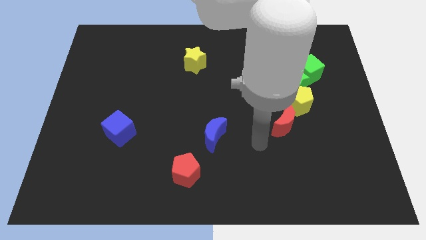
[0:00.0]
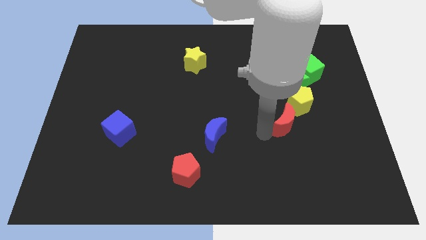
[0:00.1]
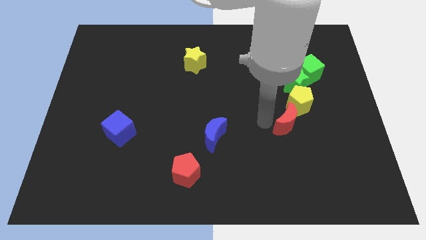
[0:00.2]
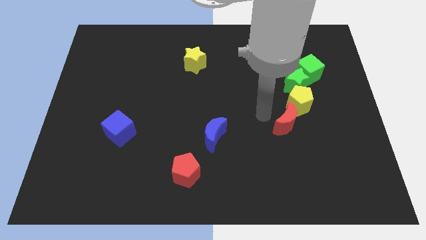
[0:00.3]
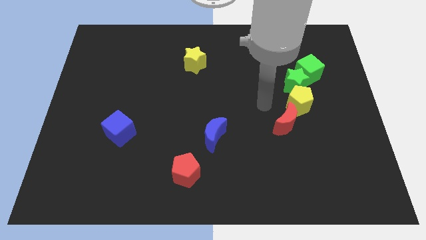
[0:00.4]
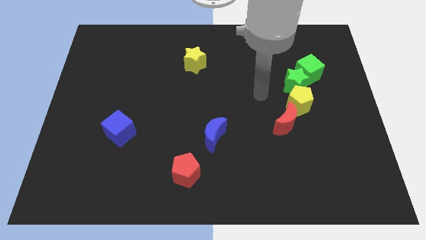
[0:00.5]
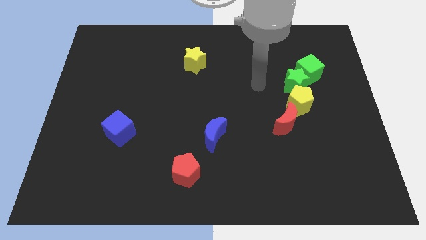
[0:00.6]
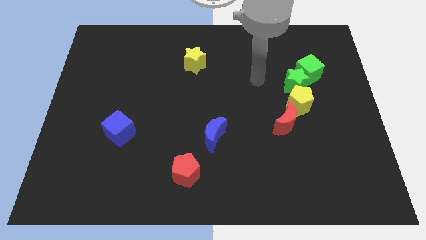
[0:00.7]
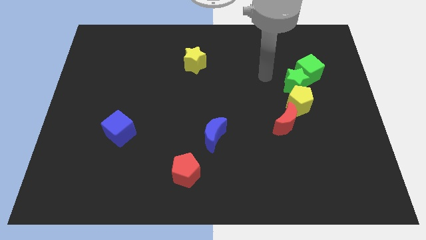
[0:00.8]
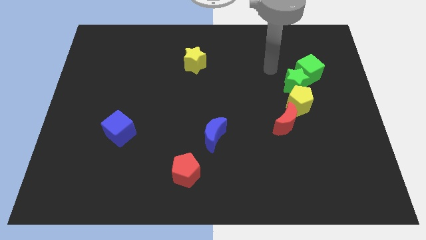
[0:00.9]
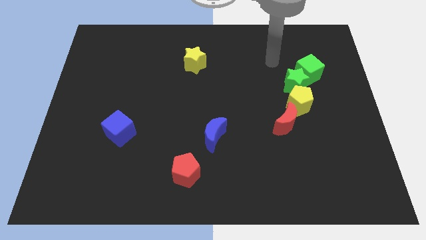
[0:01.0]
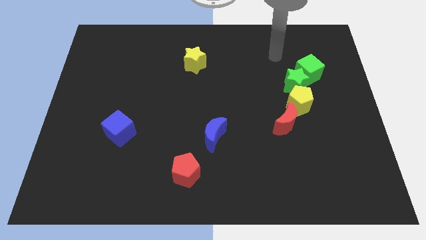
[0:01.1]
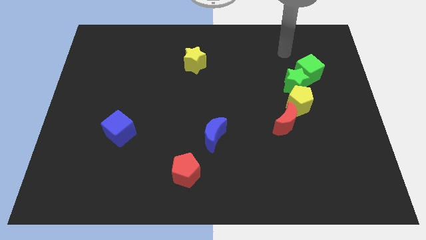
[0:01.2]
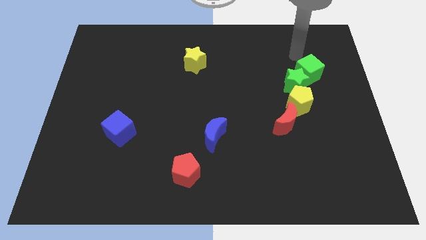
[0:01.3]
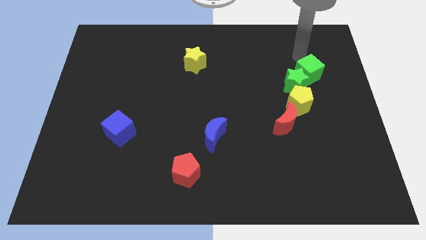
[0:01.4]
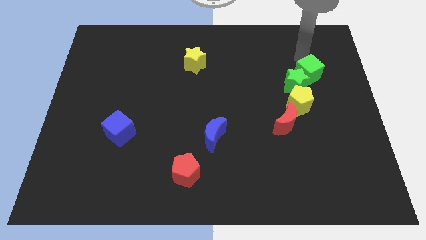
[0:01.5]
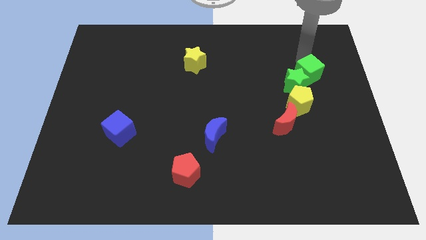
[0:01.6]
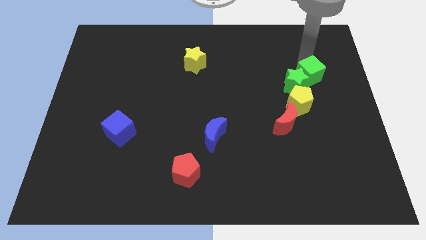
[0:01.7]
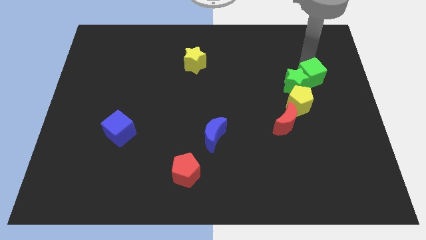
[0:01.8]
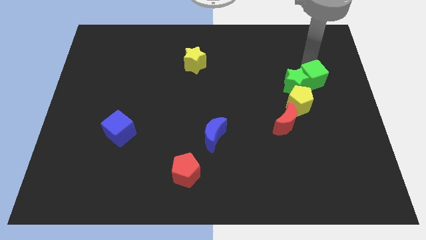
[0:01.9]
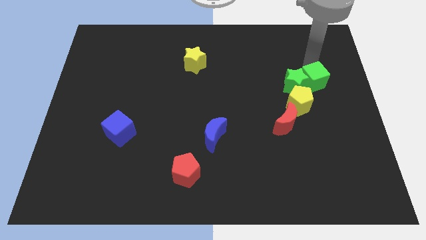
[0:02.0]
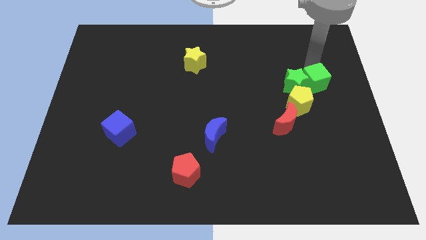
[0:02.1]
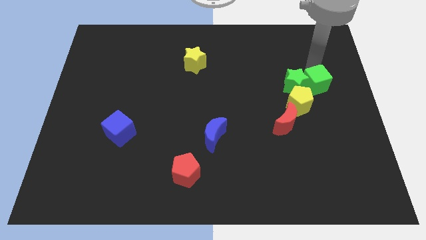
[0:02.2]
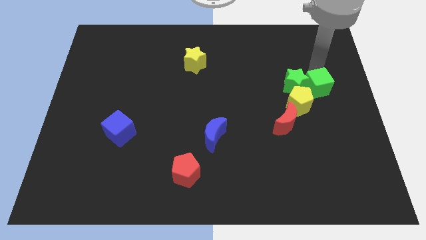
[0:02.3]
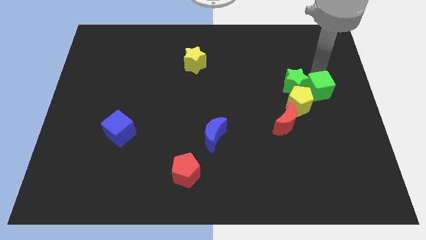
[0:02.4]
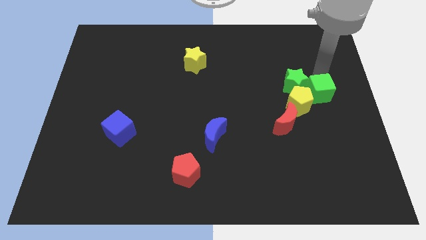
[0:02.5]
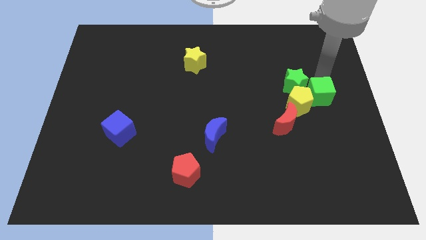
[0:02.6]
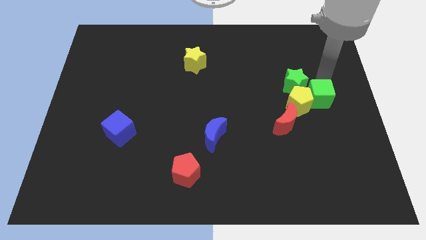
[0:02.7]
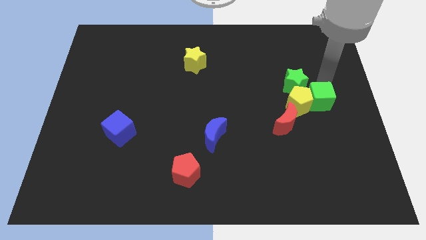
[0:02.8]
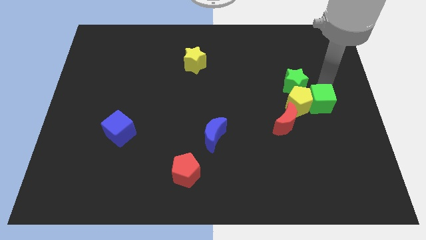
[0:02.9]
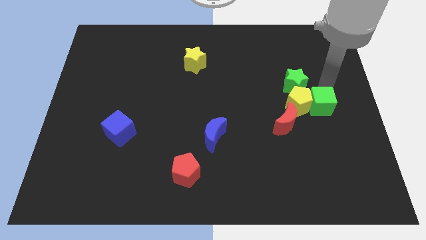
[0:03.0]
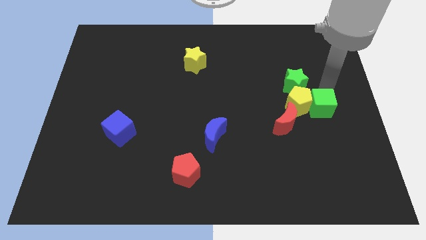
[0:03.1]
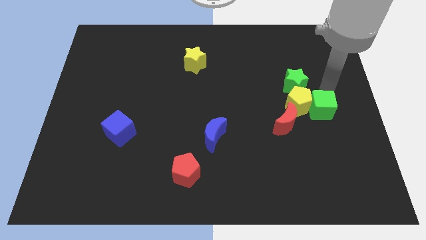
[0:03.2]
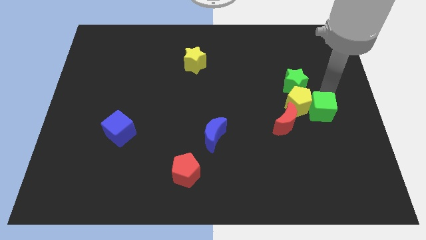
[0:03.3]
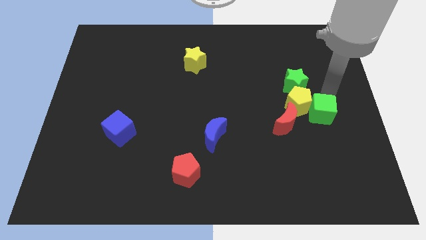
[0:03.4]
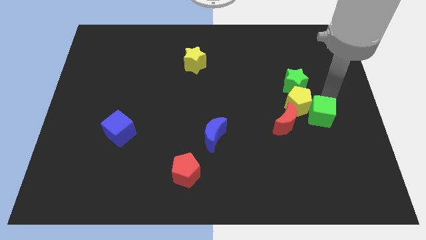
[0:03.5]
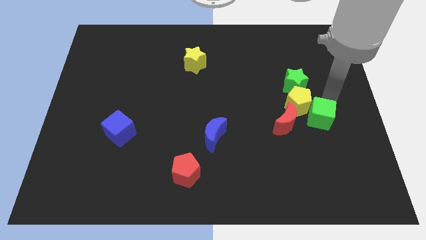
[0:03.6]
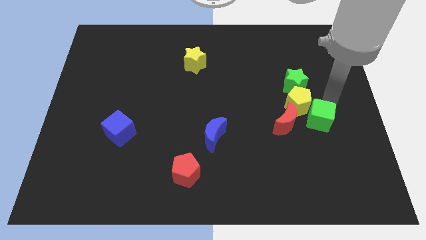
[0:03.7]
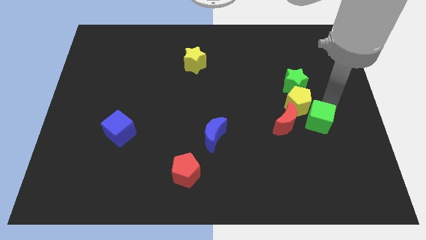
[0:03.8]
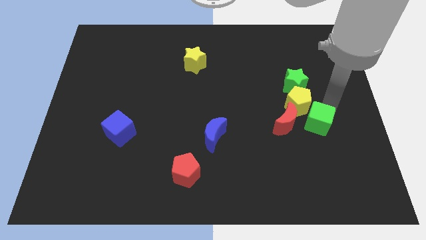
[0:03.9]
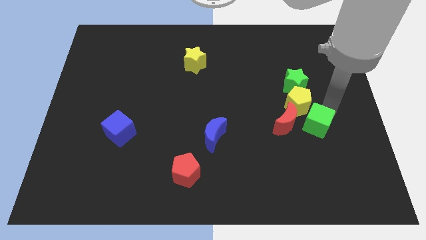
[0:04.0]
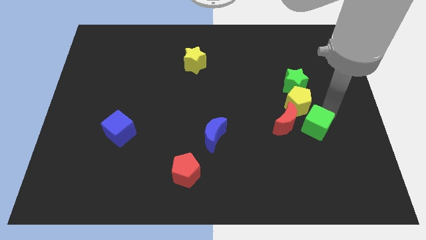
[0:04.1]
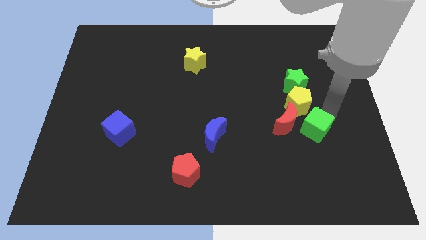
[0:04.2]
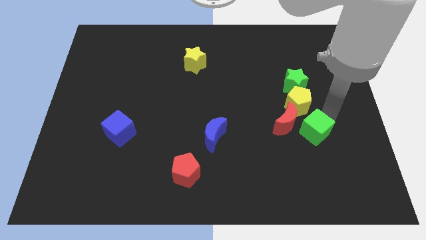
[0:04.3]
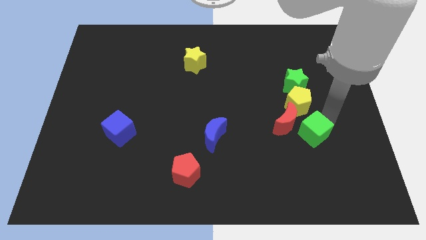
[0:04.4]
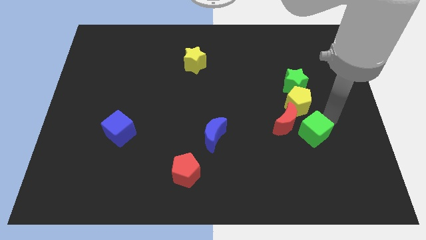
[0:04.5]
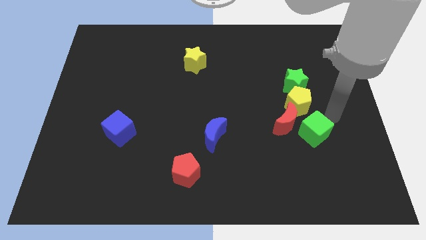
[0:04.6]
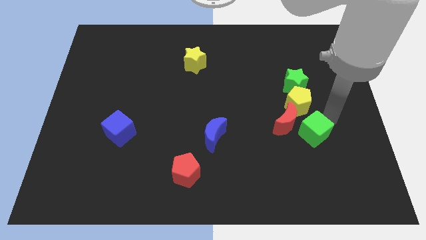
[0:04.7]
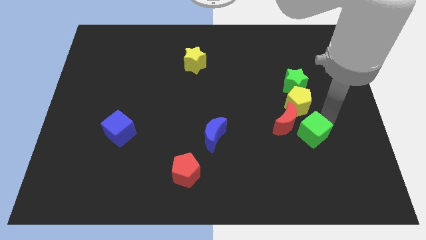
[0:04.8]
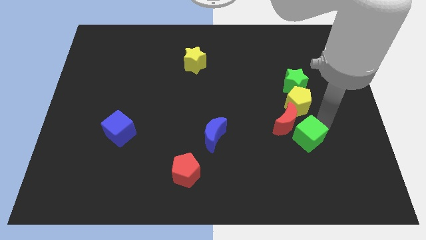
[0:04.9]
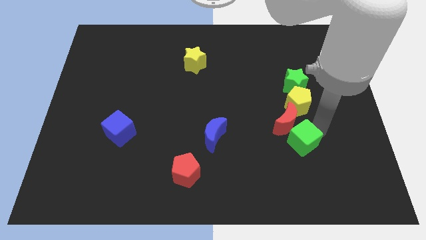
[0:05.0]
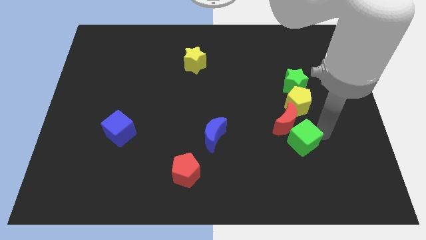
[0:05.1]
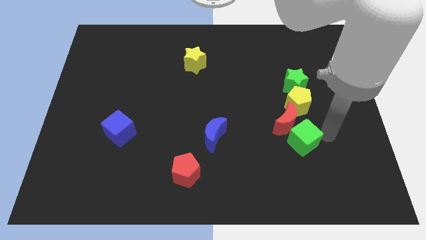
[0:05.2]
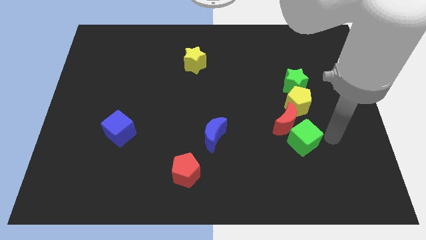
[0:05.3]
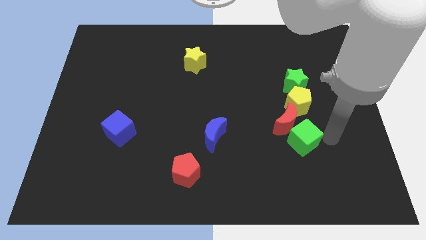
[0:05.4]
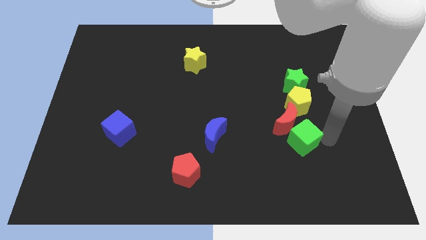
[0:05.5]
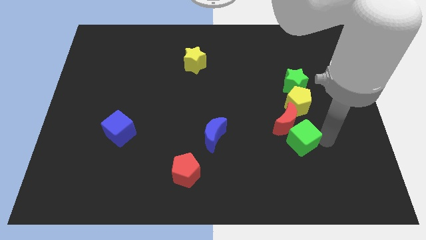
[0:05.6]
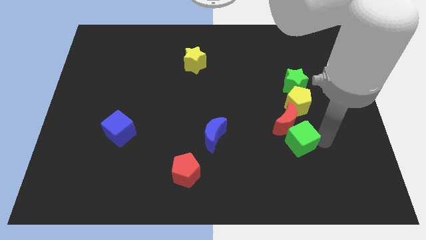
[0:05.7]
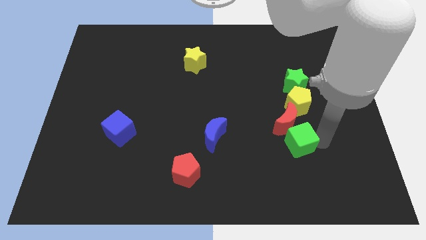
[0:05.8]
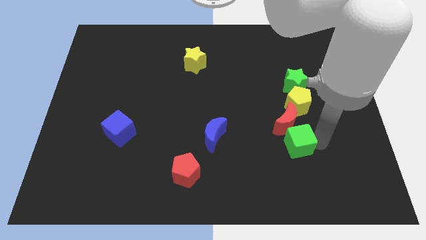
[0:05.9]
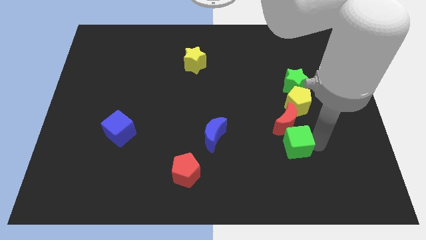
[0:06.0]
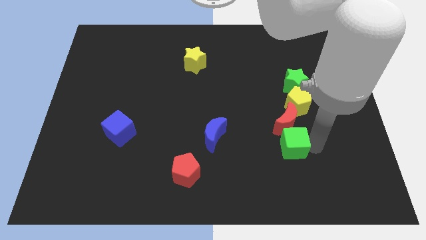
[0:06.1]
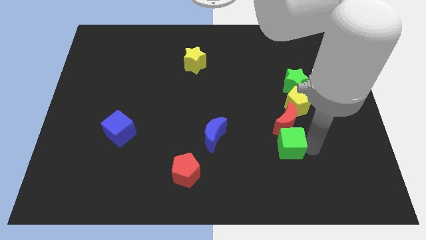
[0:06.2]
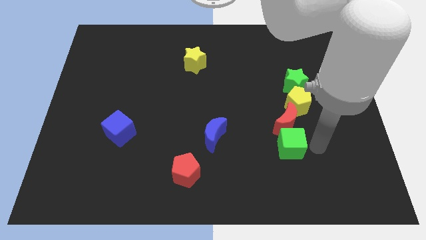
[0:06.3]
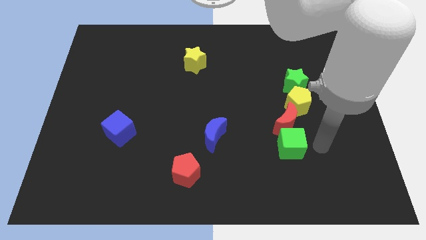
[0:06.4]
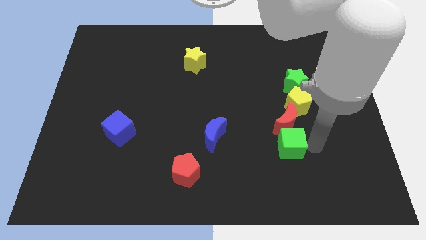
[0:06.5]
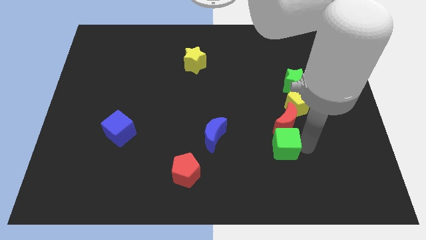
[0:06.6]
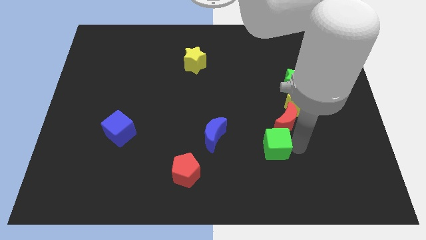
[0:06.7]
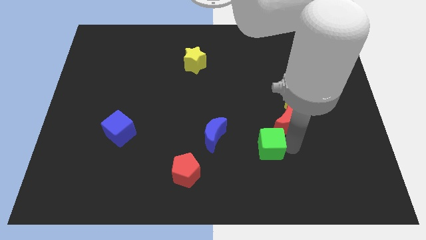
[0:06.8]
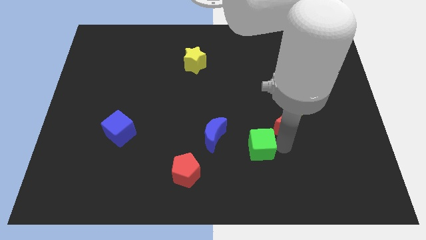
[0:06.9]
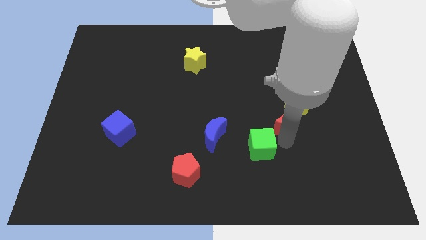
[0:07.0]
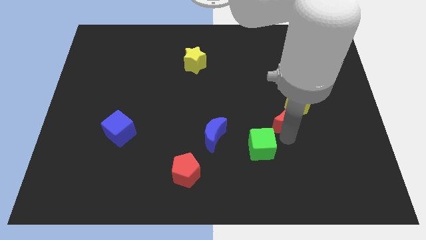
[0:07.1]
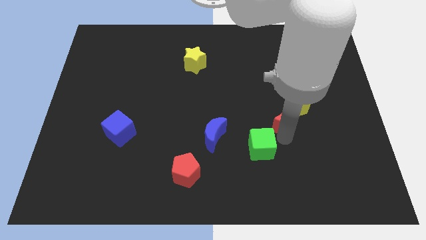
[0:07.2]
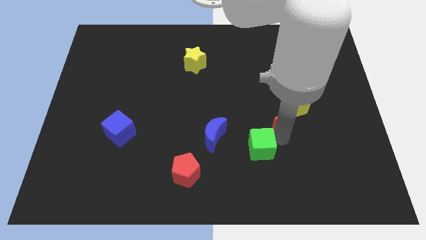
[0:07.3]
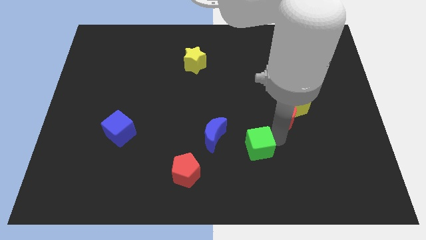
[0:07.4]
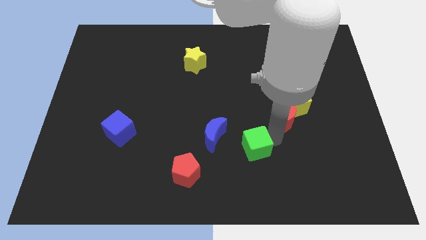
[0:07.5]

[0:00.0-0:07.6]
put the green cube to the bottom right side of the blue moon
